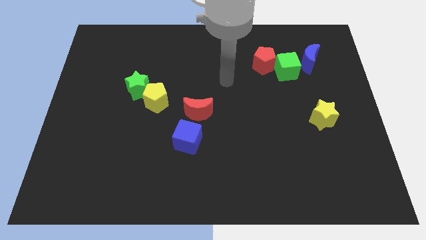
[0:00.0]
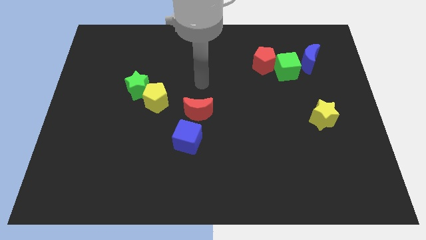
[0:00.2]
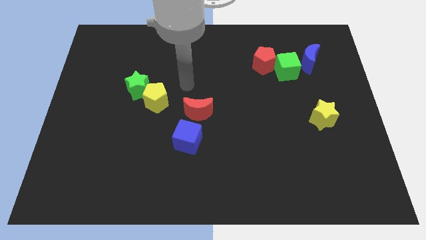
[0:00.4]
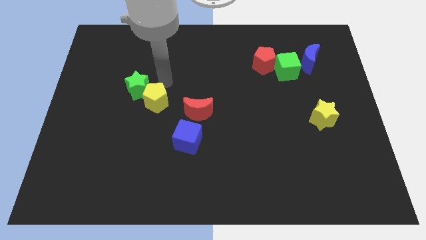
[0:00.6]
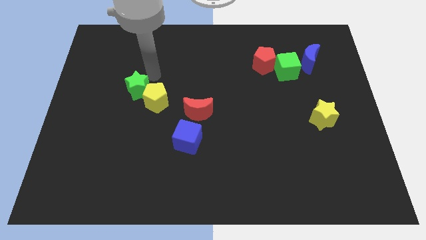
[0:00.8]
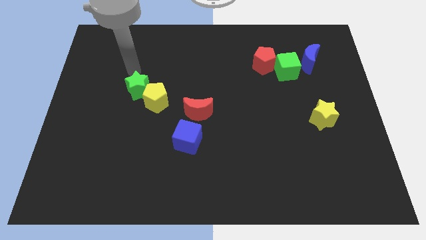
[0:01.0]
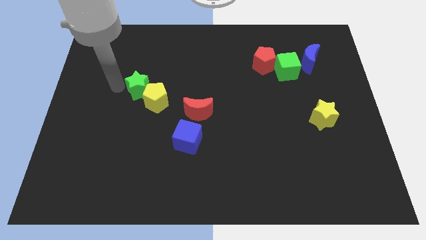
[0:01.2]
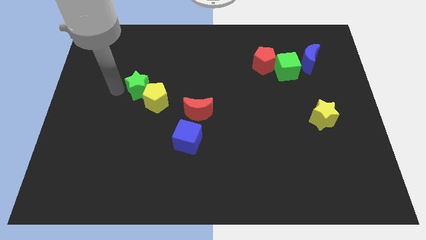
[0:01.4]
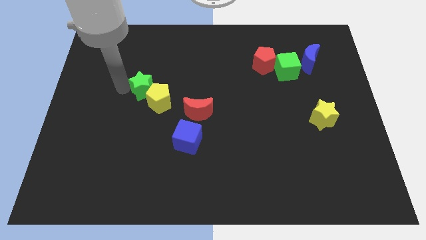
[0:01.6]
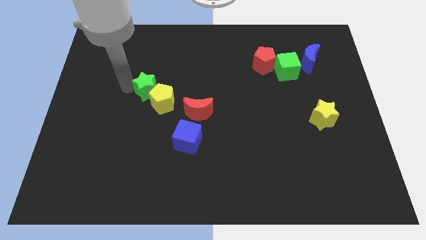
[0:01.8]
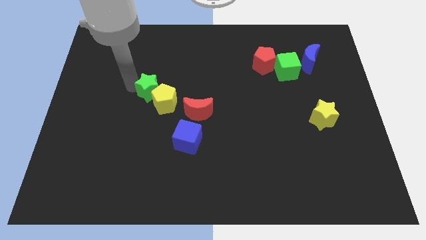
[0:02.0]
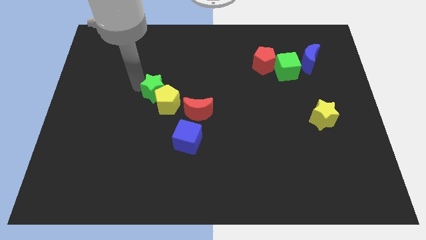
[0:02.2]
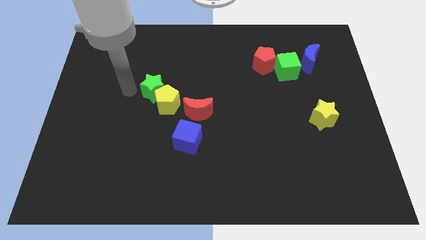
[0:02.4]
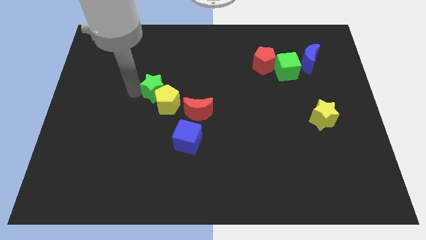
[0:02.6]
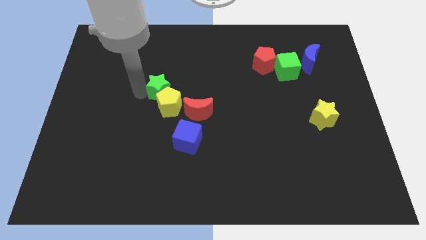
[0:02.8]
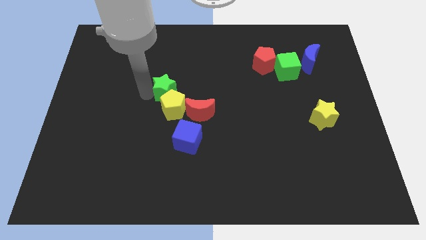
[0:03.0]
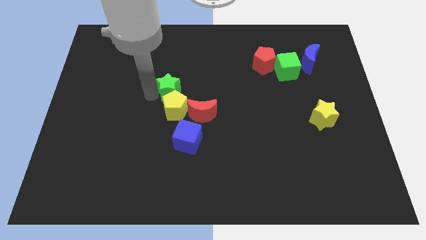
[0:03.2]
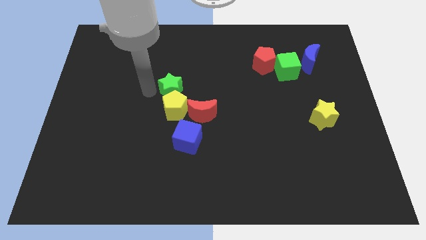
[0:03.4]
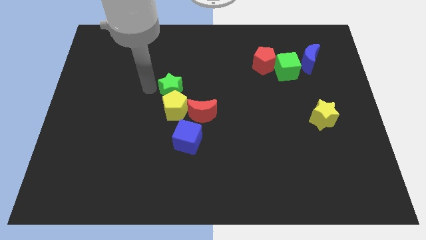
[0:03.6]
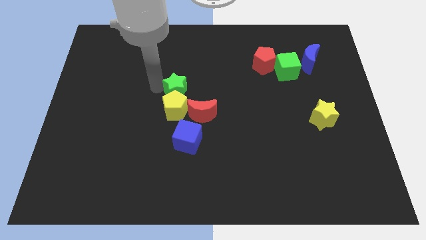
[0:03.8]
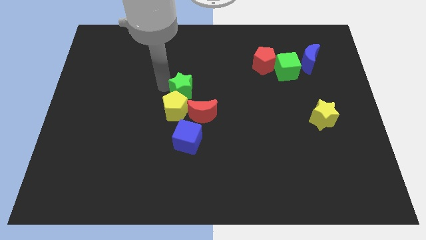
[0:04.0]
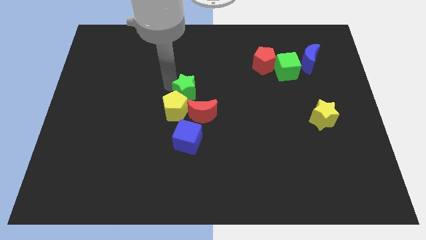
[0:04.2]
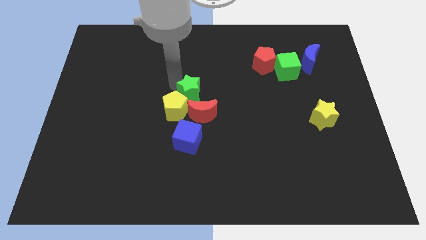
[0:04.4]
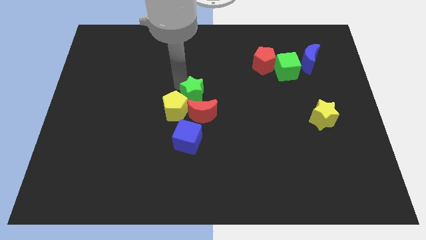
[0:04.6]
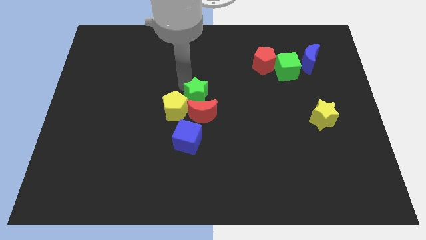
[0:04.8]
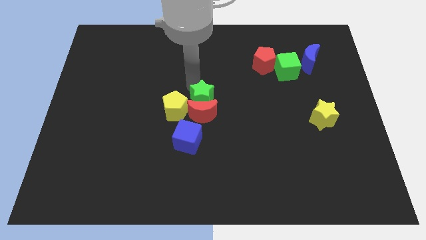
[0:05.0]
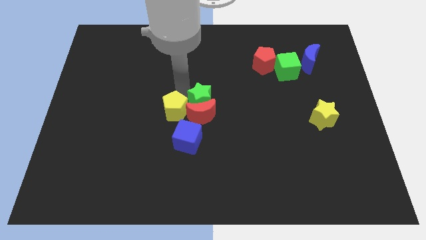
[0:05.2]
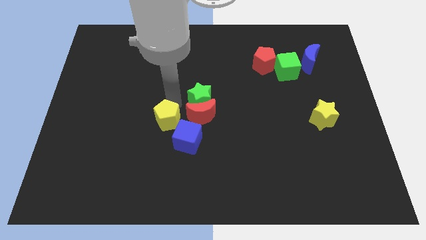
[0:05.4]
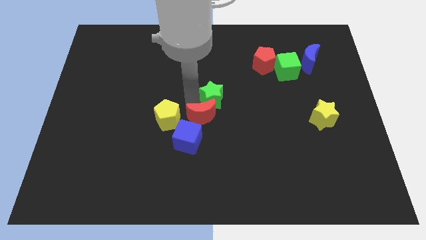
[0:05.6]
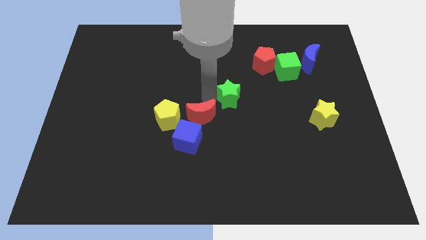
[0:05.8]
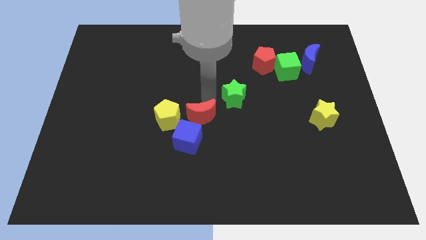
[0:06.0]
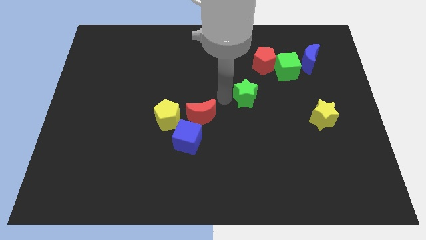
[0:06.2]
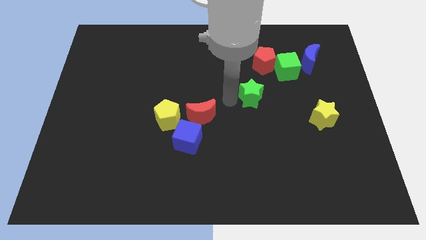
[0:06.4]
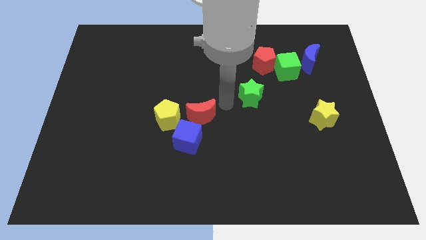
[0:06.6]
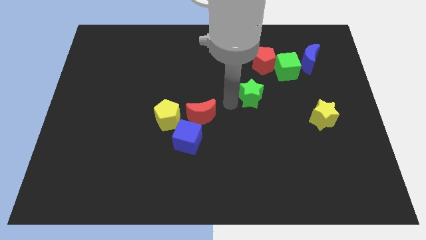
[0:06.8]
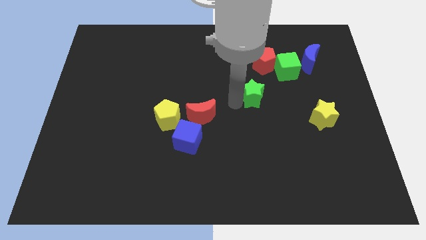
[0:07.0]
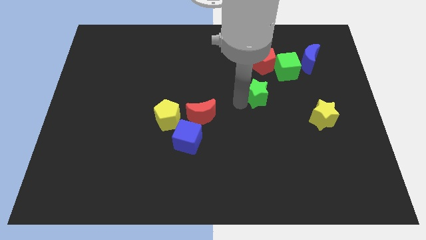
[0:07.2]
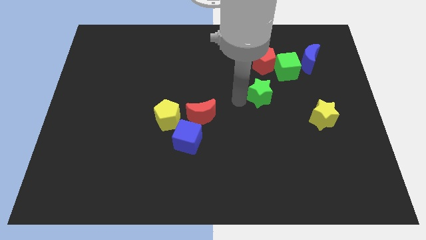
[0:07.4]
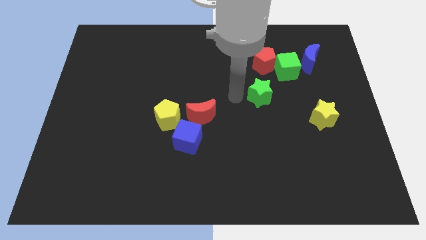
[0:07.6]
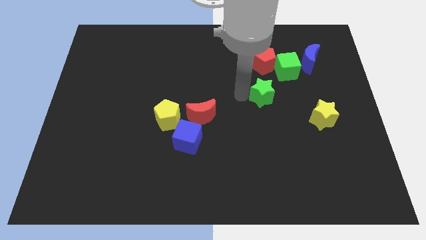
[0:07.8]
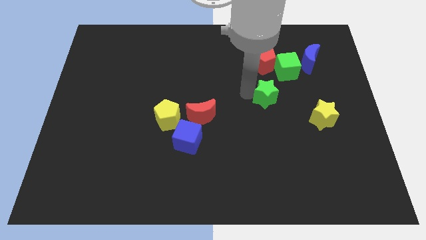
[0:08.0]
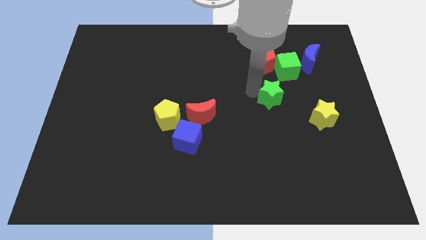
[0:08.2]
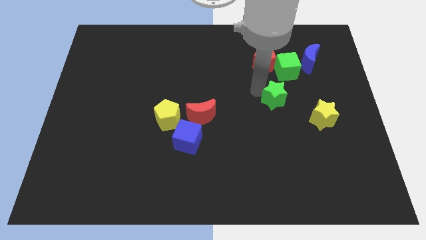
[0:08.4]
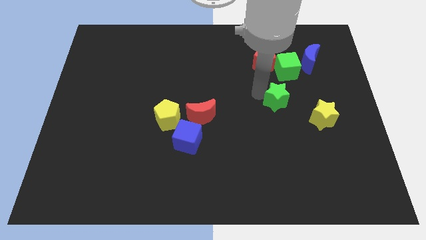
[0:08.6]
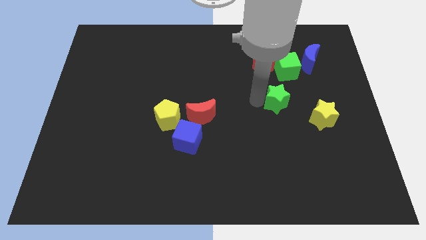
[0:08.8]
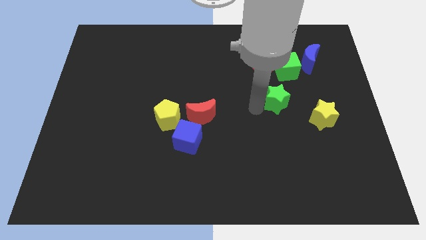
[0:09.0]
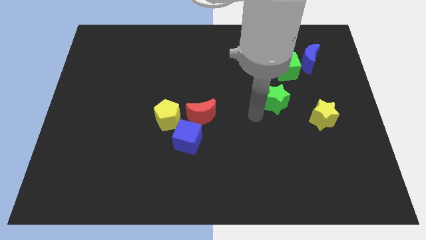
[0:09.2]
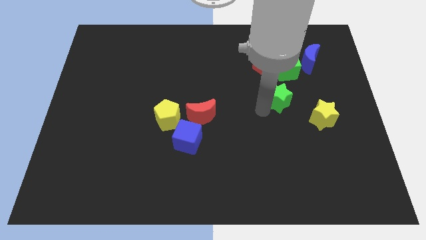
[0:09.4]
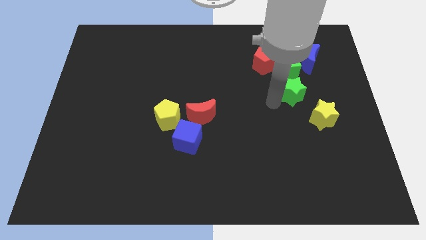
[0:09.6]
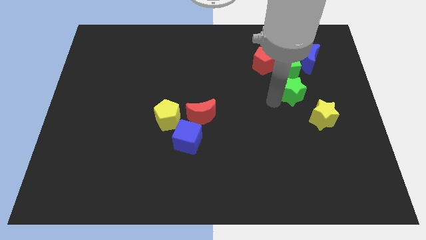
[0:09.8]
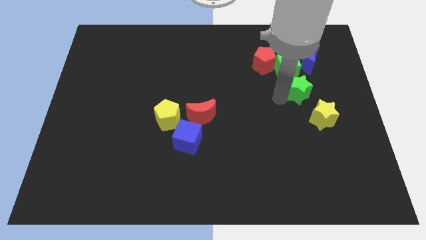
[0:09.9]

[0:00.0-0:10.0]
move the green star diagonally down and to the right of the green cube

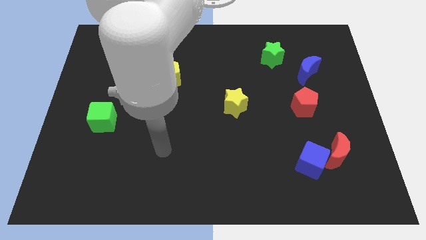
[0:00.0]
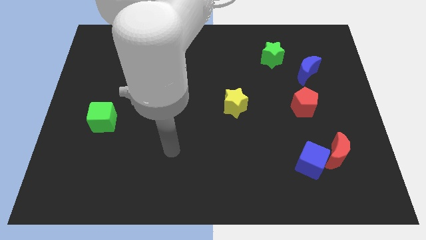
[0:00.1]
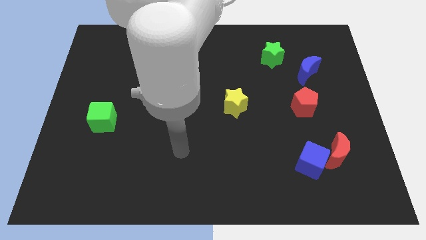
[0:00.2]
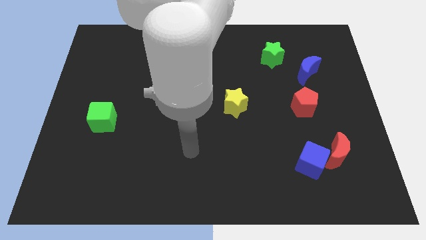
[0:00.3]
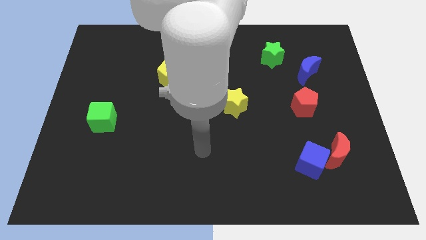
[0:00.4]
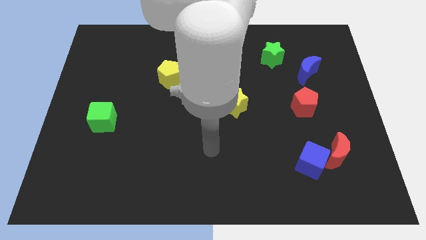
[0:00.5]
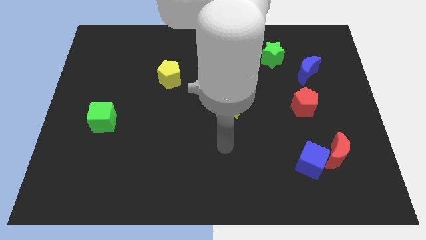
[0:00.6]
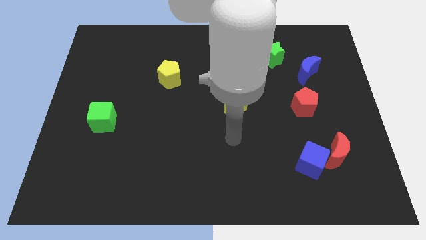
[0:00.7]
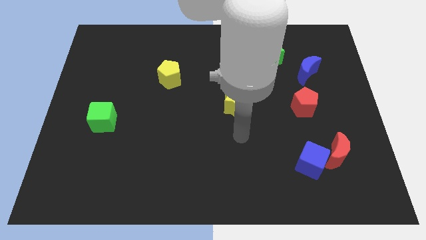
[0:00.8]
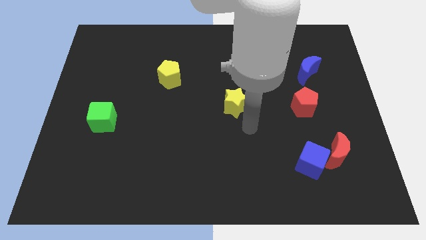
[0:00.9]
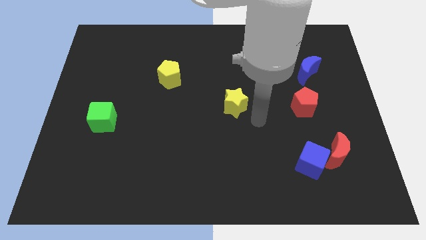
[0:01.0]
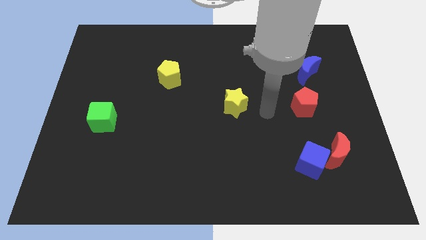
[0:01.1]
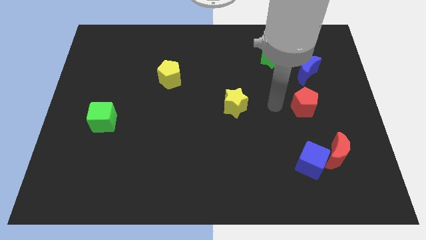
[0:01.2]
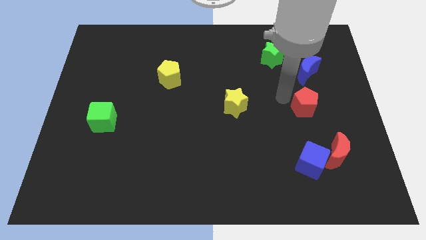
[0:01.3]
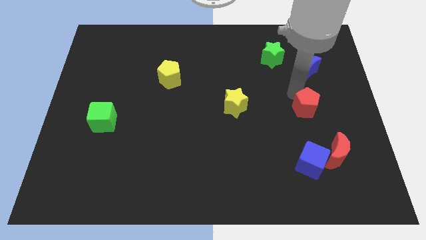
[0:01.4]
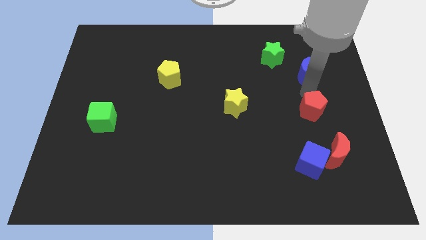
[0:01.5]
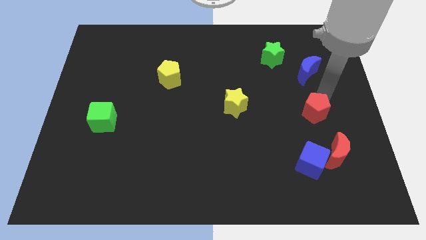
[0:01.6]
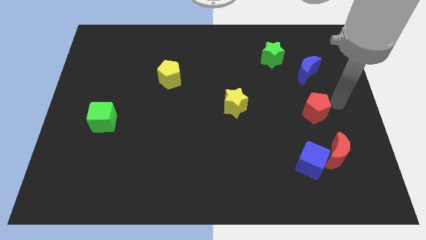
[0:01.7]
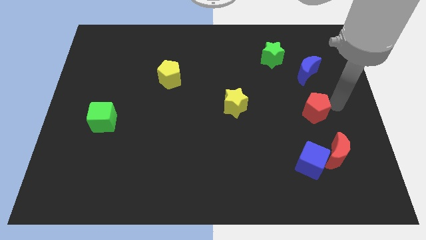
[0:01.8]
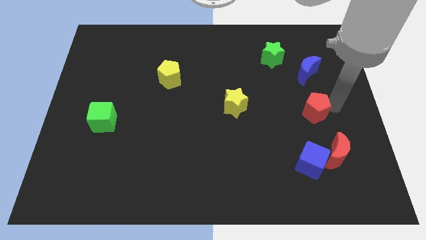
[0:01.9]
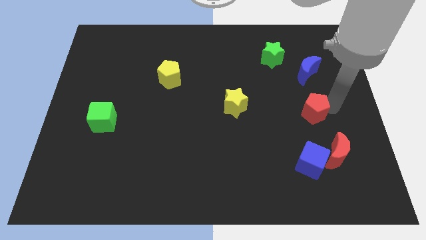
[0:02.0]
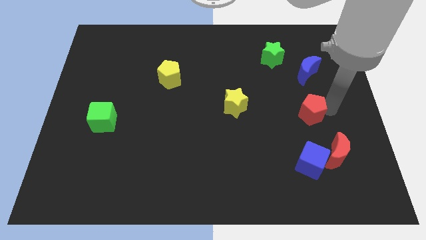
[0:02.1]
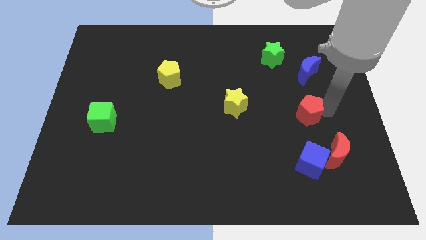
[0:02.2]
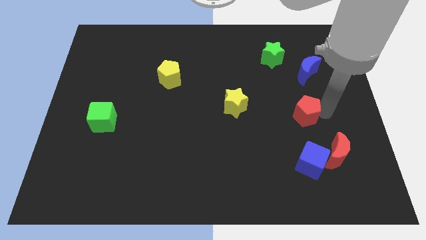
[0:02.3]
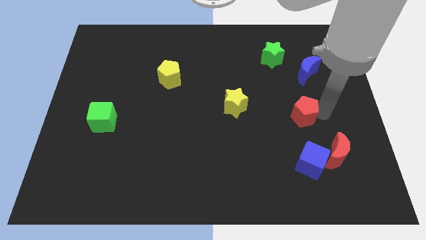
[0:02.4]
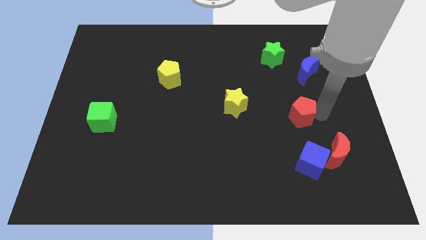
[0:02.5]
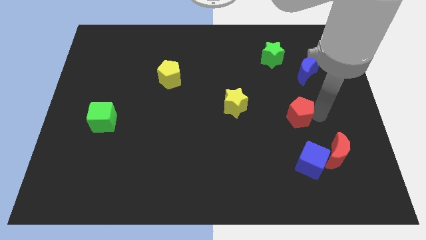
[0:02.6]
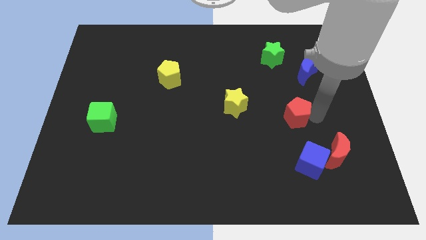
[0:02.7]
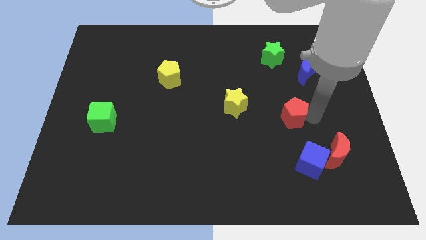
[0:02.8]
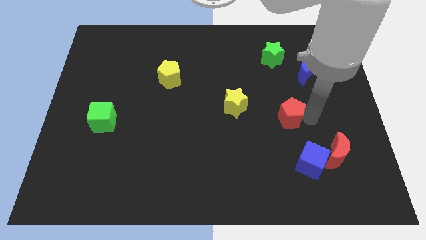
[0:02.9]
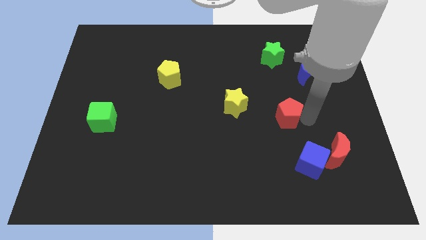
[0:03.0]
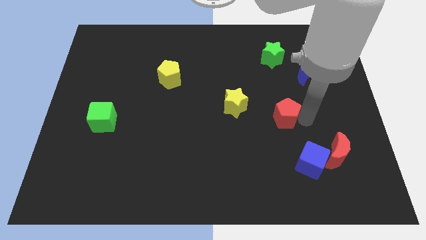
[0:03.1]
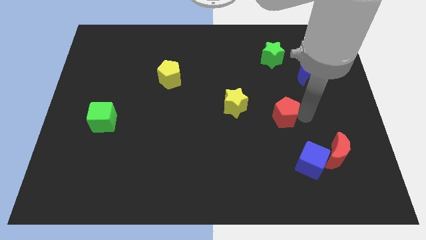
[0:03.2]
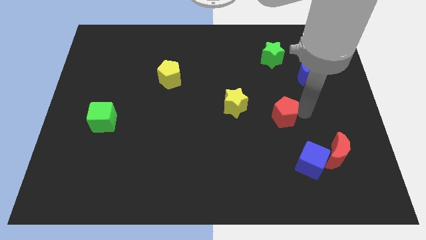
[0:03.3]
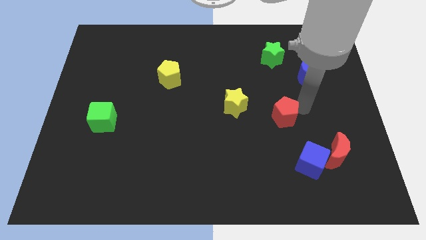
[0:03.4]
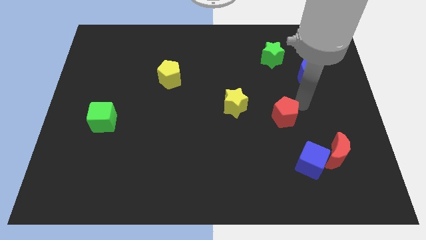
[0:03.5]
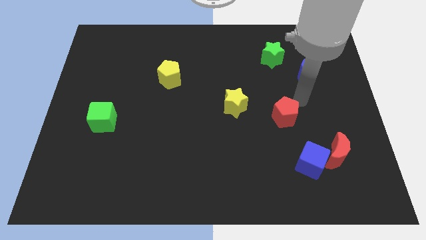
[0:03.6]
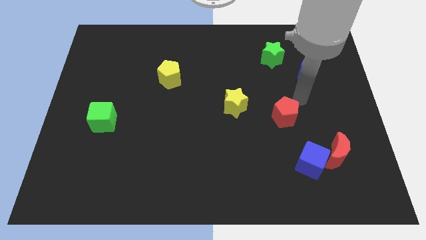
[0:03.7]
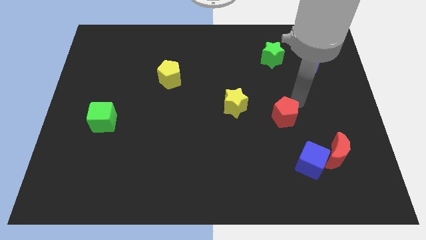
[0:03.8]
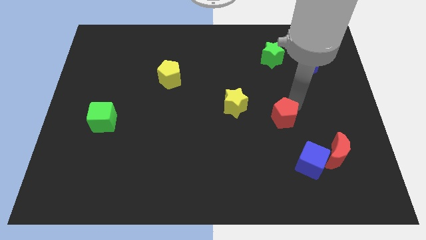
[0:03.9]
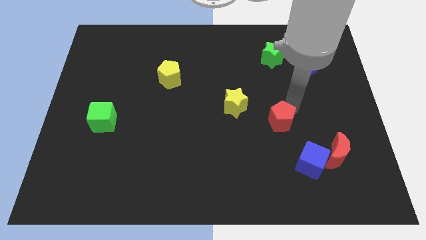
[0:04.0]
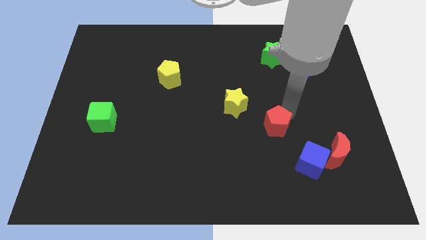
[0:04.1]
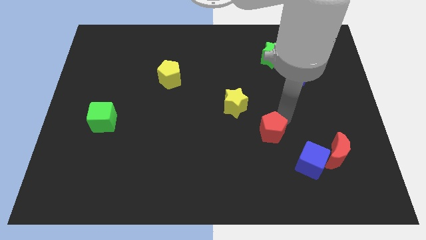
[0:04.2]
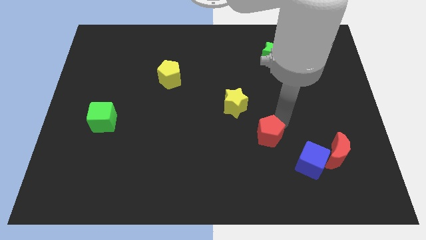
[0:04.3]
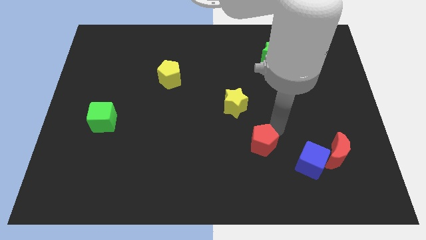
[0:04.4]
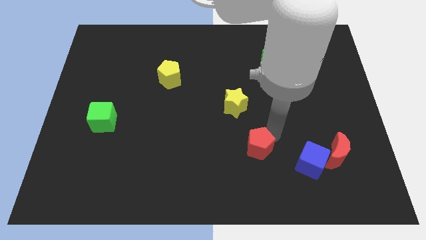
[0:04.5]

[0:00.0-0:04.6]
push the red pentagon to the bottom side of the yellow star
